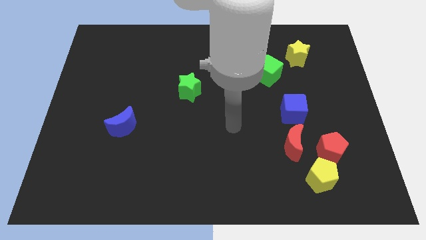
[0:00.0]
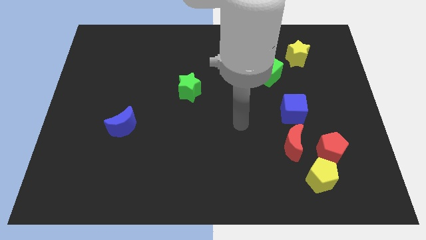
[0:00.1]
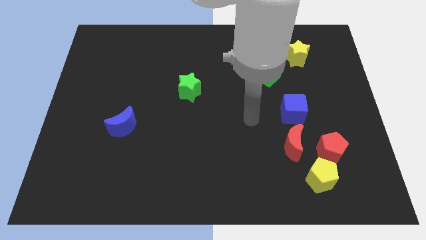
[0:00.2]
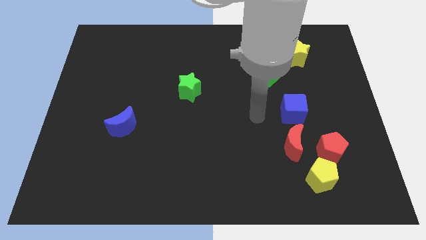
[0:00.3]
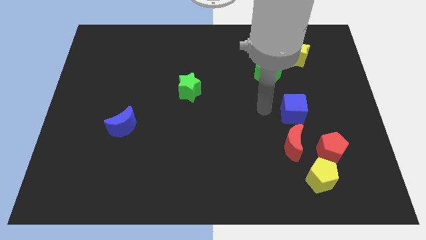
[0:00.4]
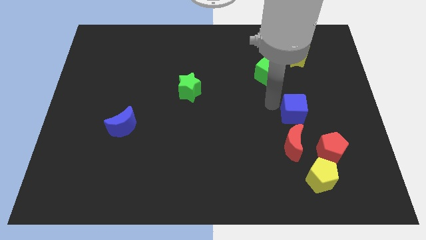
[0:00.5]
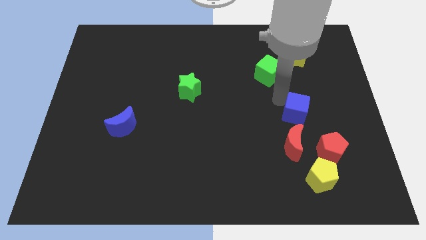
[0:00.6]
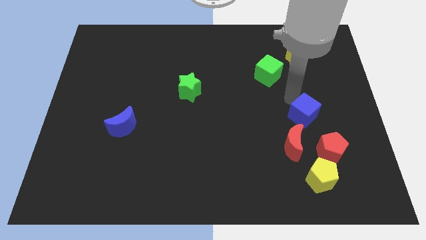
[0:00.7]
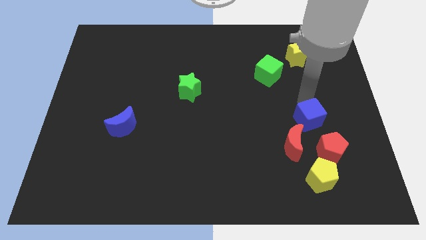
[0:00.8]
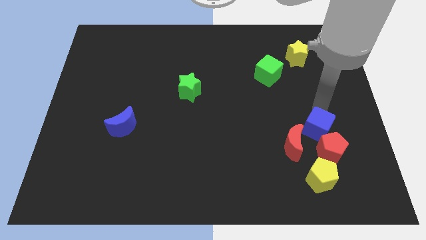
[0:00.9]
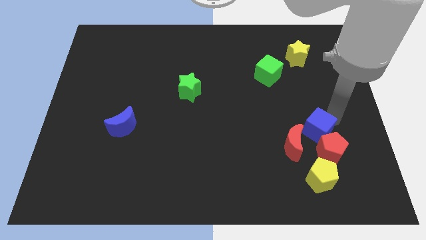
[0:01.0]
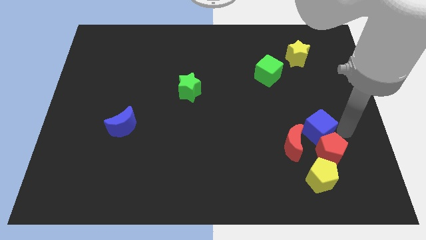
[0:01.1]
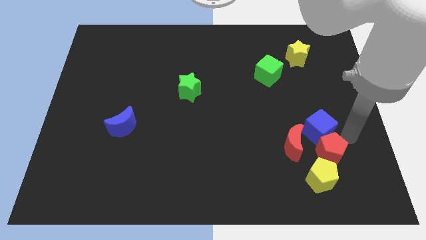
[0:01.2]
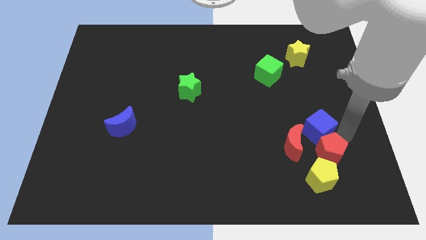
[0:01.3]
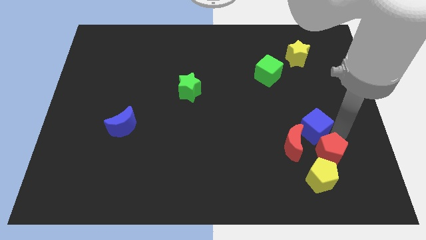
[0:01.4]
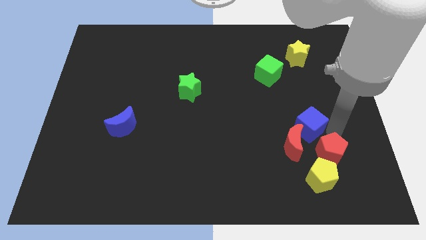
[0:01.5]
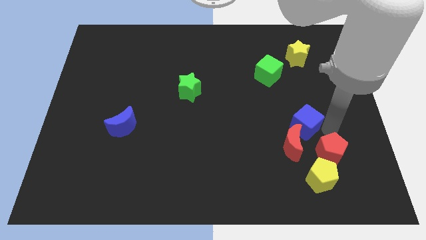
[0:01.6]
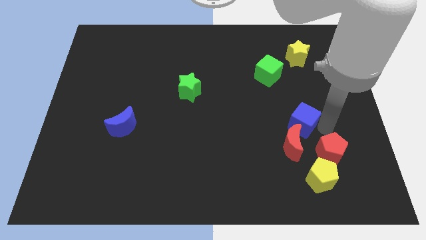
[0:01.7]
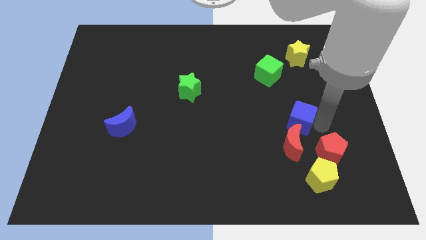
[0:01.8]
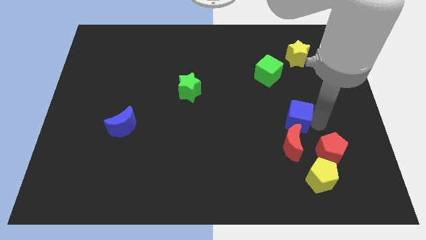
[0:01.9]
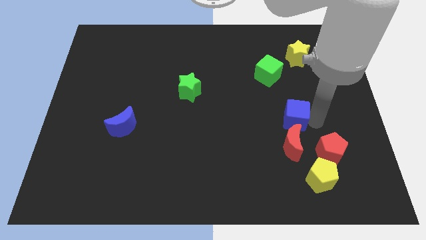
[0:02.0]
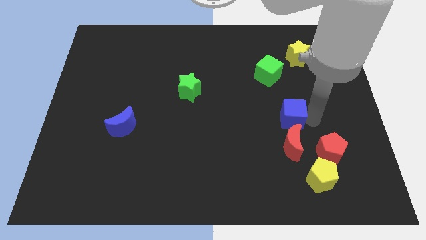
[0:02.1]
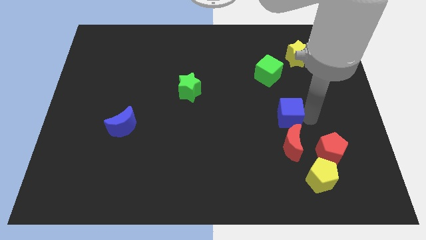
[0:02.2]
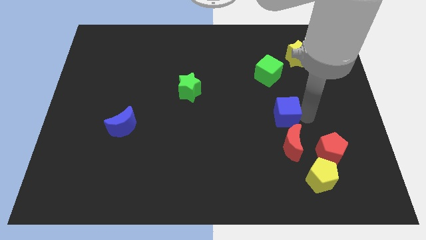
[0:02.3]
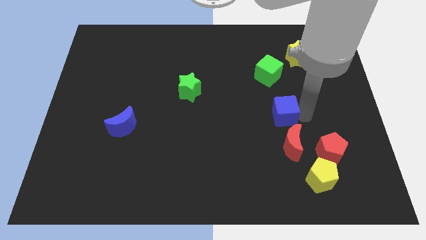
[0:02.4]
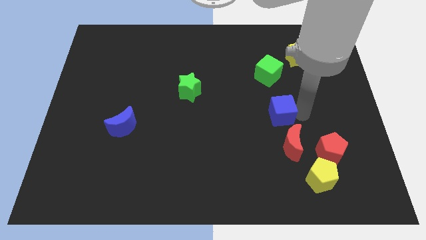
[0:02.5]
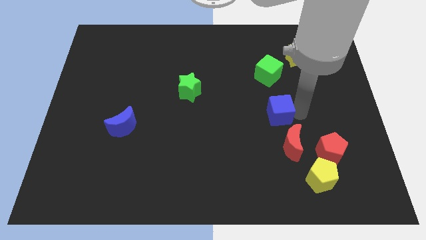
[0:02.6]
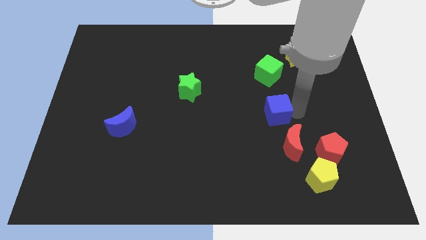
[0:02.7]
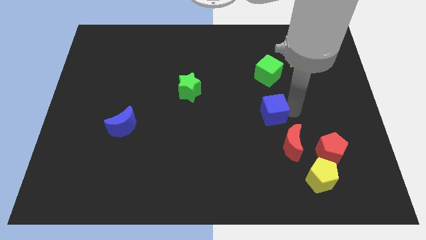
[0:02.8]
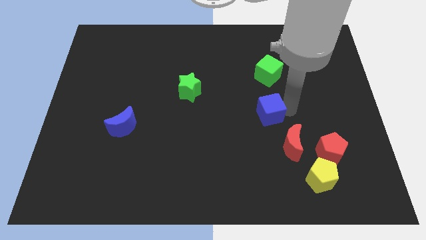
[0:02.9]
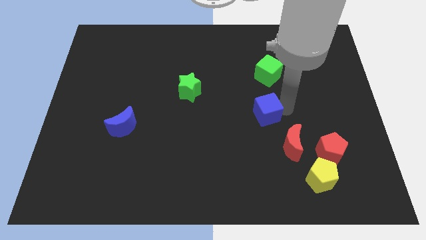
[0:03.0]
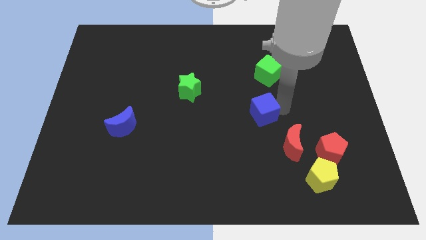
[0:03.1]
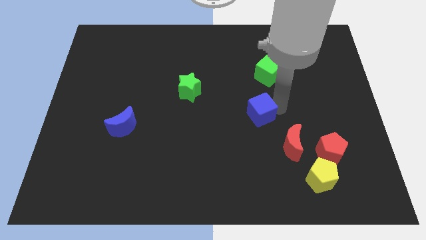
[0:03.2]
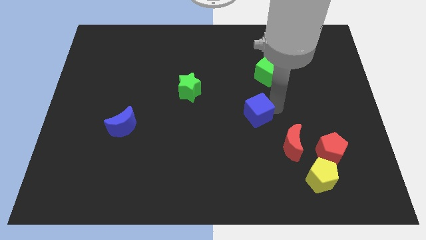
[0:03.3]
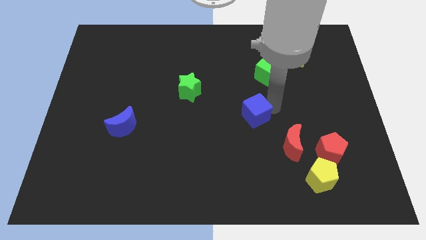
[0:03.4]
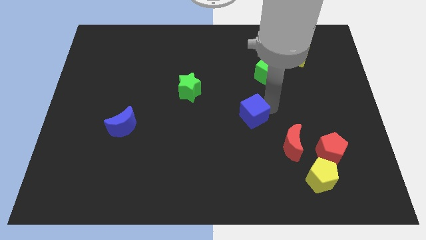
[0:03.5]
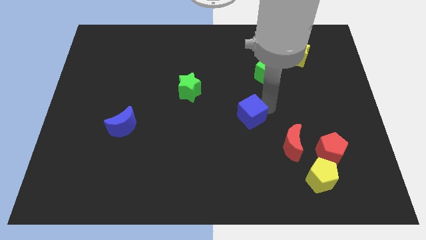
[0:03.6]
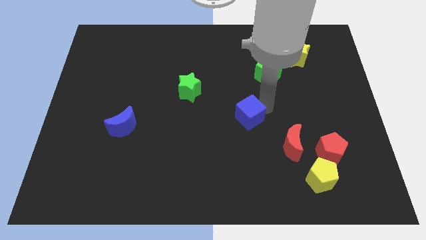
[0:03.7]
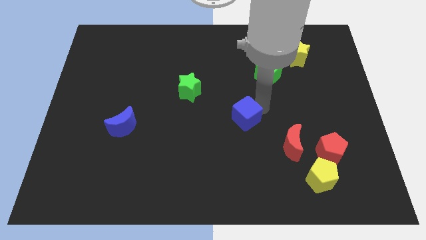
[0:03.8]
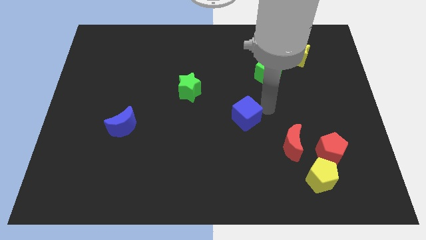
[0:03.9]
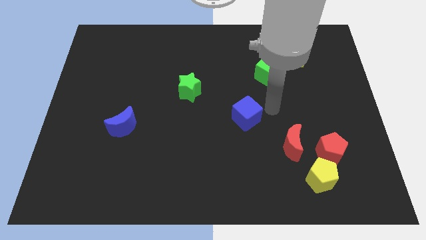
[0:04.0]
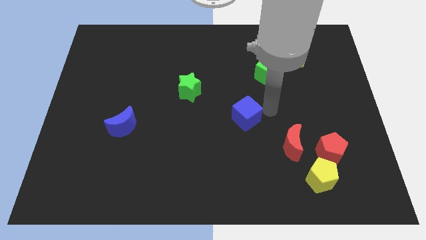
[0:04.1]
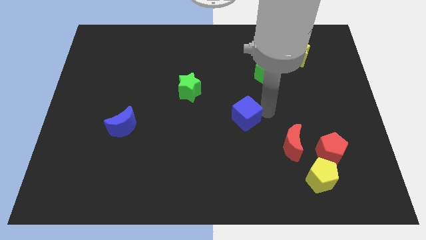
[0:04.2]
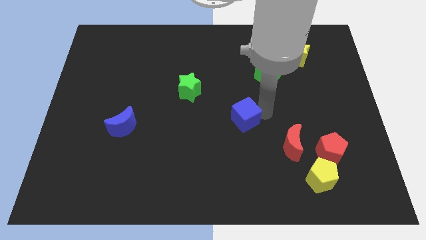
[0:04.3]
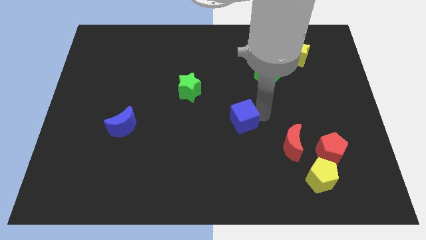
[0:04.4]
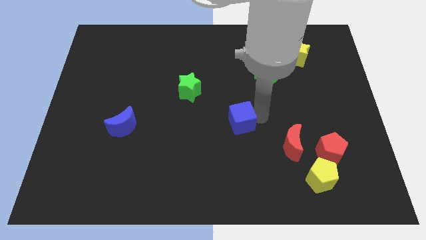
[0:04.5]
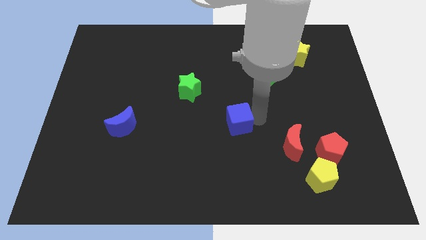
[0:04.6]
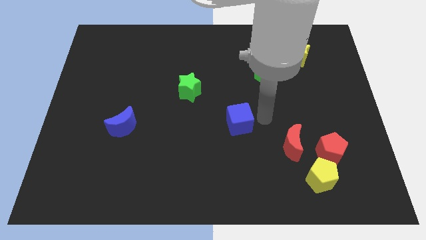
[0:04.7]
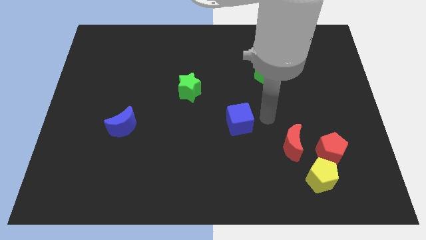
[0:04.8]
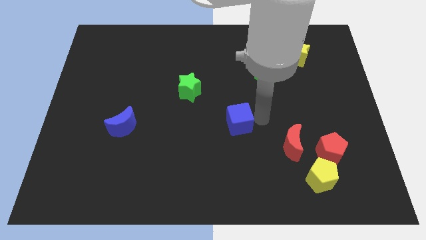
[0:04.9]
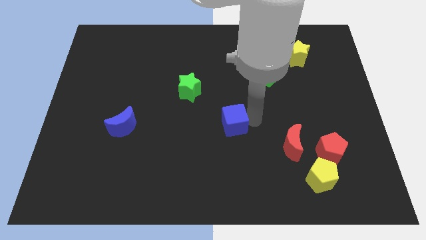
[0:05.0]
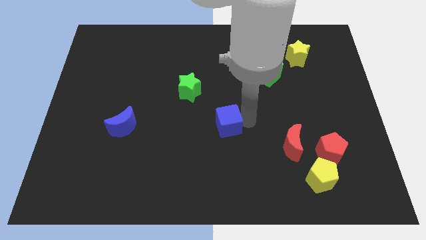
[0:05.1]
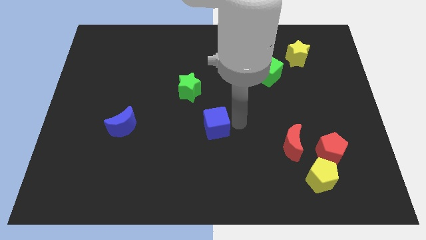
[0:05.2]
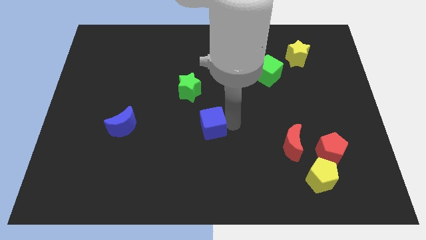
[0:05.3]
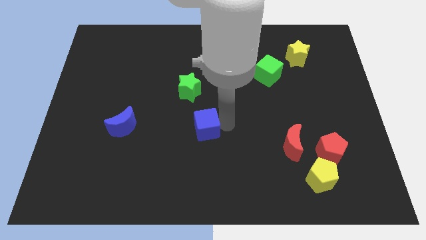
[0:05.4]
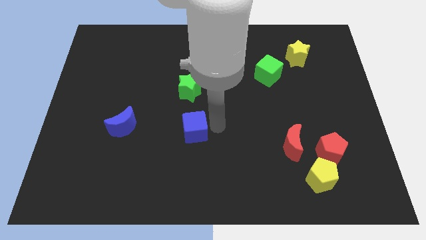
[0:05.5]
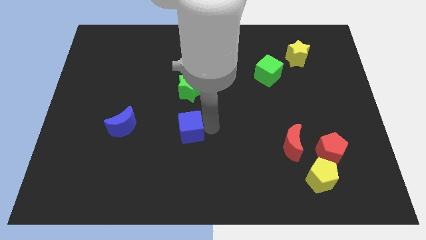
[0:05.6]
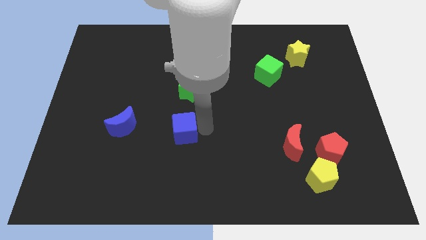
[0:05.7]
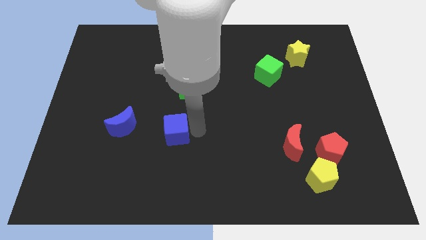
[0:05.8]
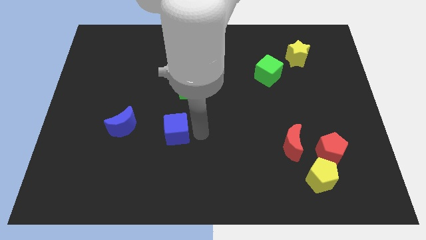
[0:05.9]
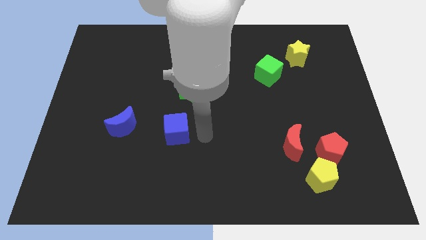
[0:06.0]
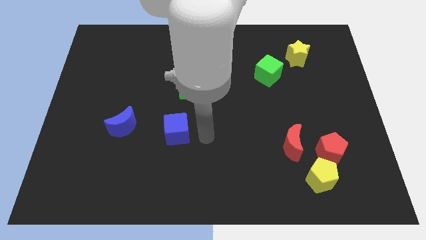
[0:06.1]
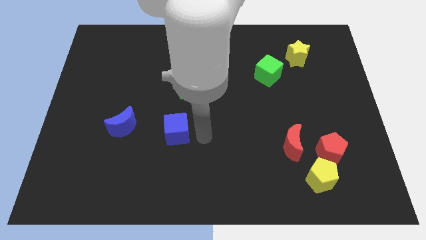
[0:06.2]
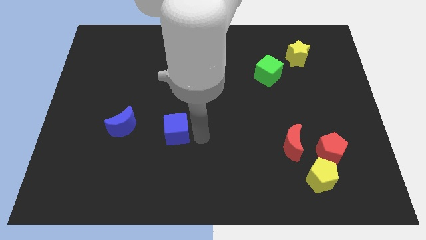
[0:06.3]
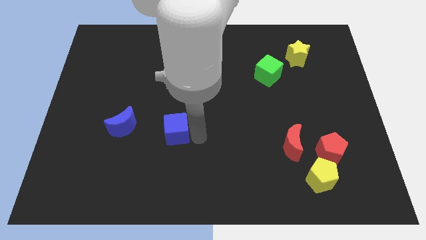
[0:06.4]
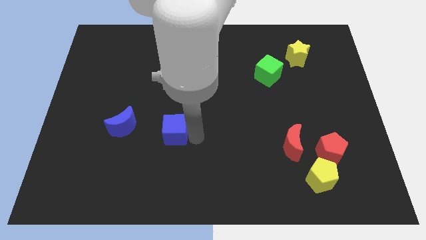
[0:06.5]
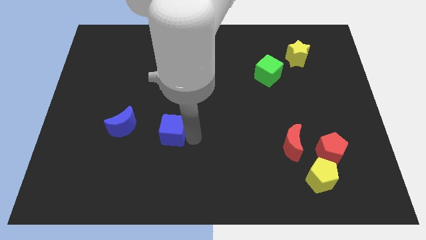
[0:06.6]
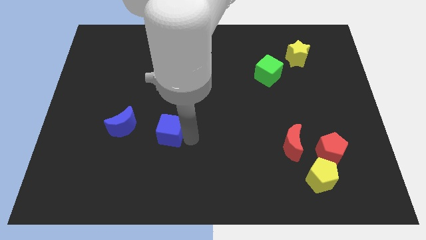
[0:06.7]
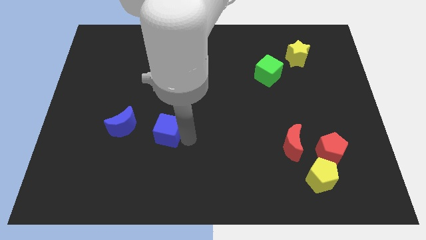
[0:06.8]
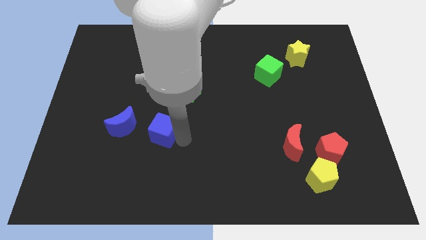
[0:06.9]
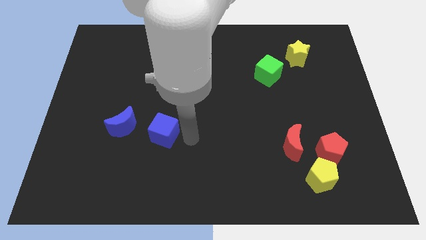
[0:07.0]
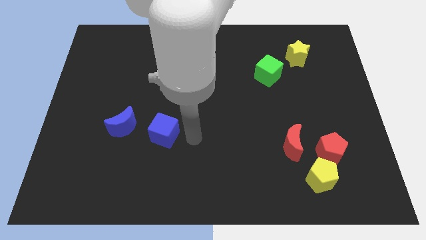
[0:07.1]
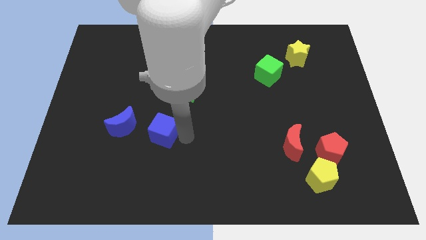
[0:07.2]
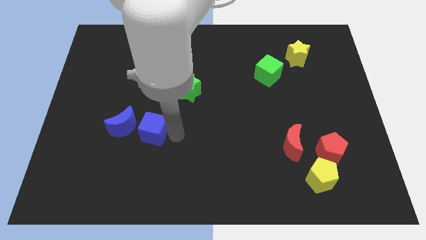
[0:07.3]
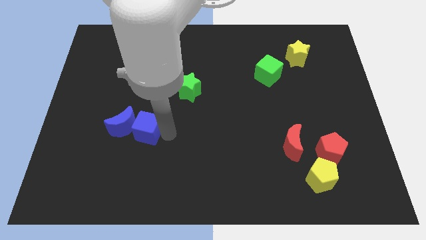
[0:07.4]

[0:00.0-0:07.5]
put the blue cube close to the blue moon
